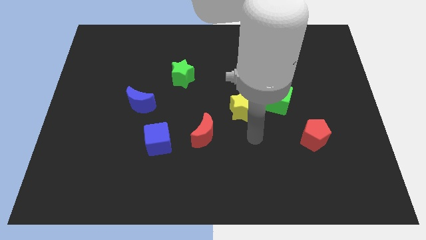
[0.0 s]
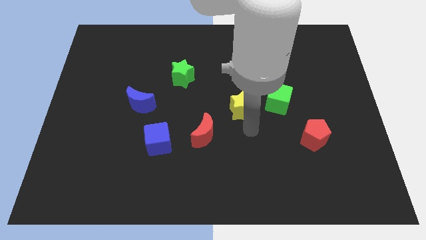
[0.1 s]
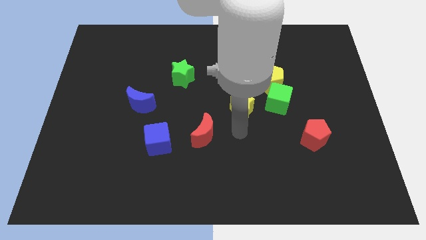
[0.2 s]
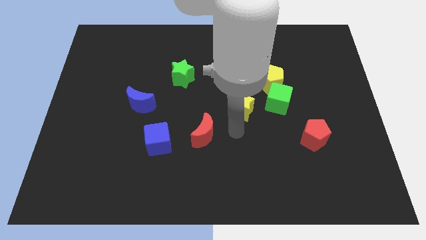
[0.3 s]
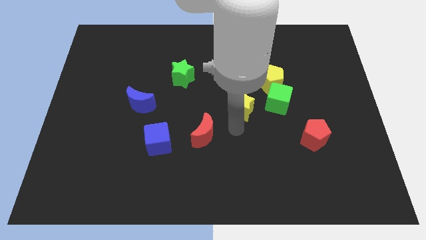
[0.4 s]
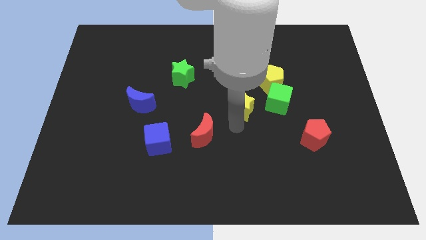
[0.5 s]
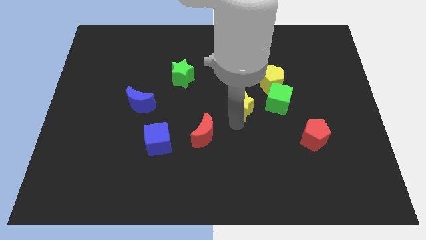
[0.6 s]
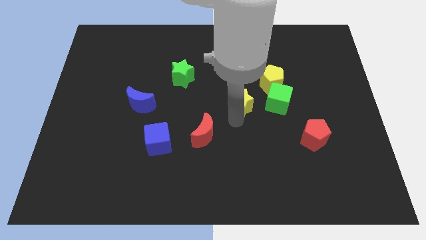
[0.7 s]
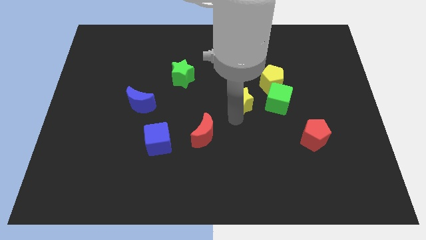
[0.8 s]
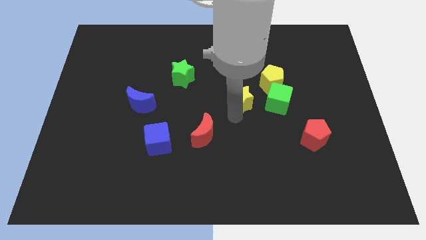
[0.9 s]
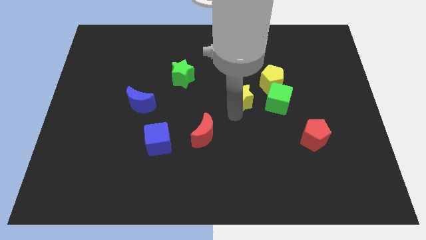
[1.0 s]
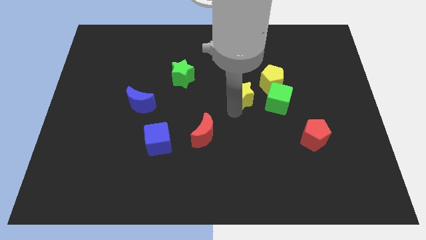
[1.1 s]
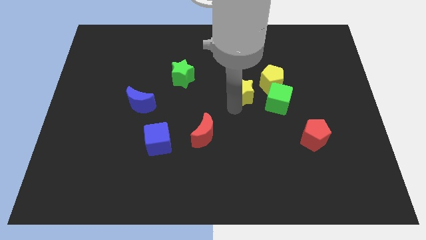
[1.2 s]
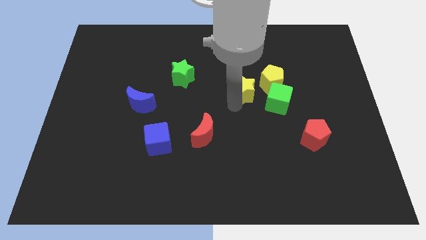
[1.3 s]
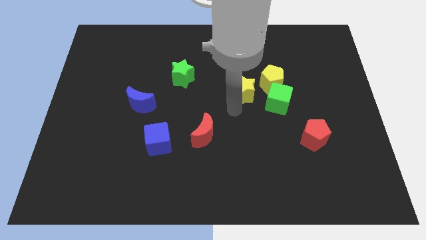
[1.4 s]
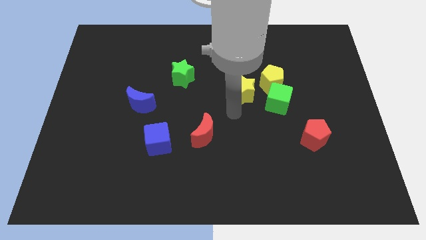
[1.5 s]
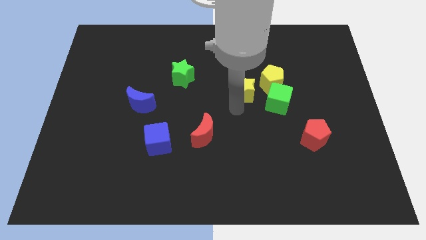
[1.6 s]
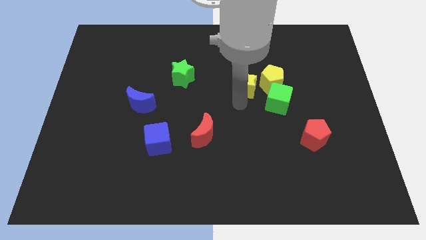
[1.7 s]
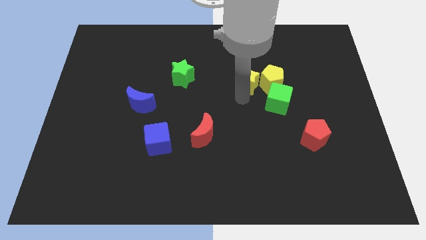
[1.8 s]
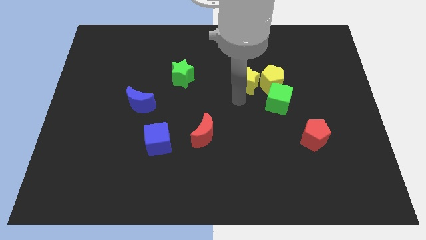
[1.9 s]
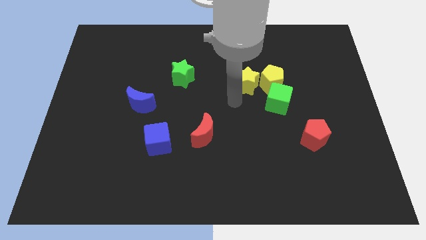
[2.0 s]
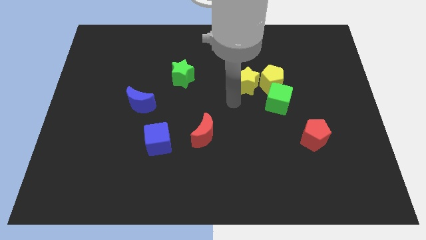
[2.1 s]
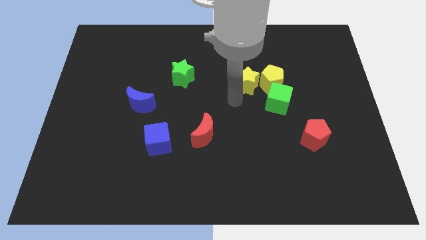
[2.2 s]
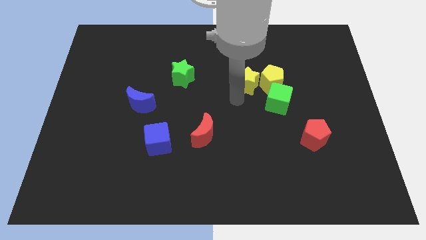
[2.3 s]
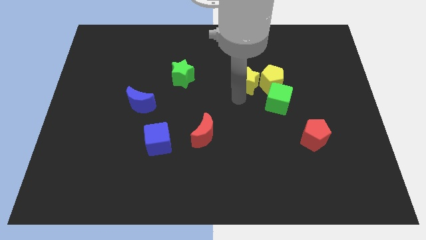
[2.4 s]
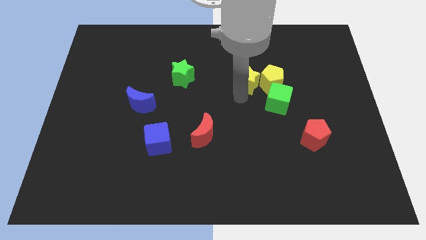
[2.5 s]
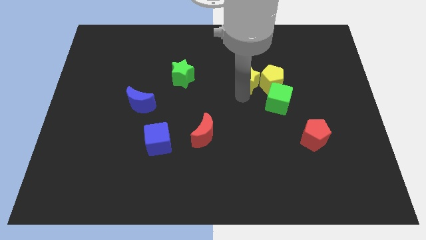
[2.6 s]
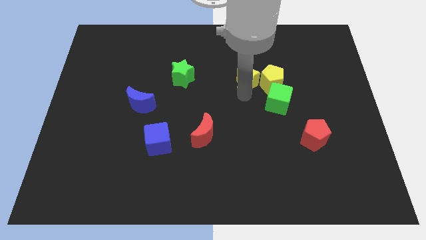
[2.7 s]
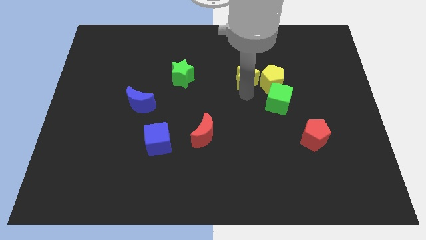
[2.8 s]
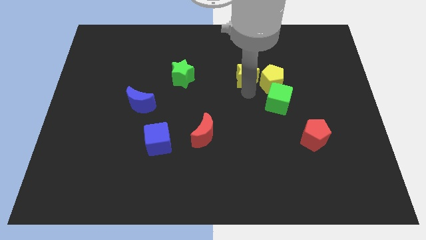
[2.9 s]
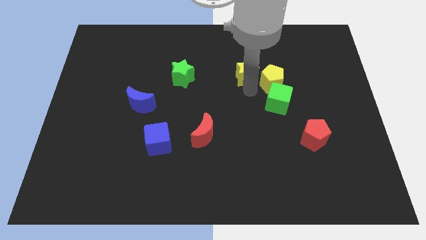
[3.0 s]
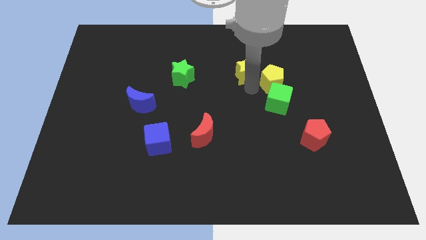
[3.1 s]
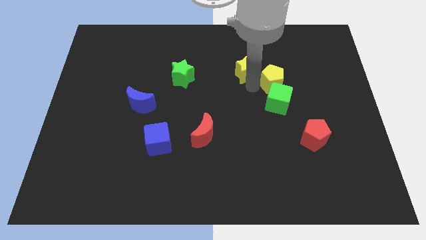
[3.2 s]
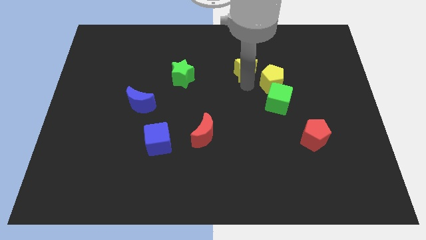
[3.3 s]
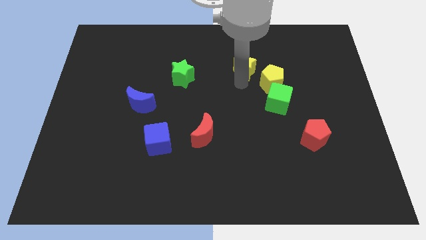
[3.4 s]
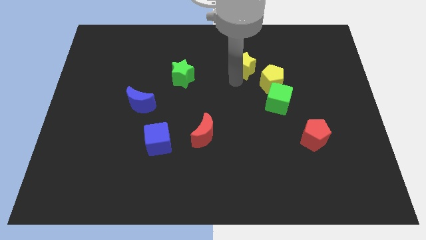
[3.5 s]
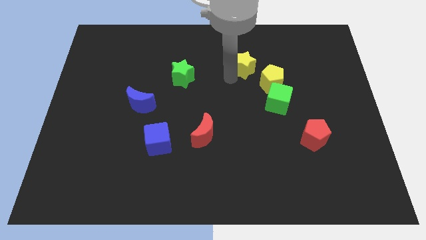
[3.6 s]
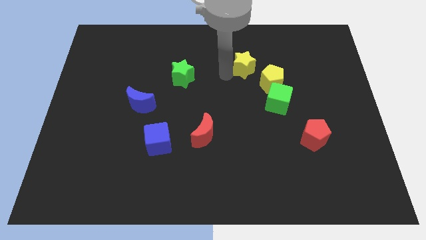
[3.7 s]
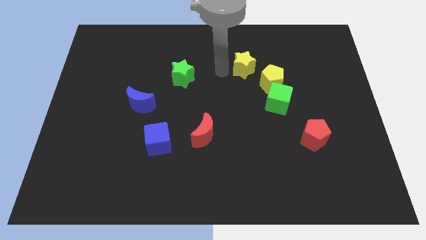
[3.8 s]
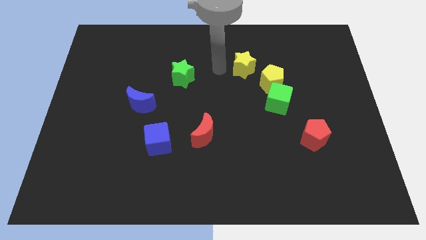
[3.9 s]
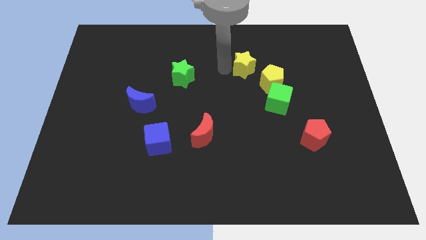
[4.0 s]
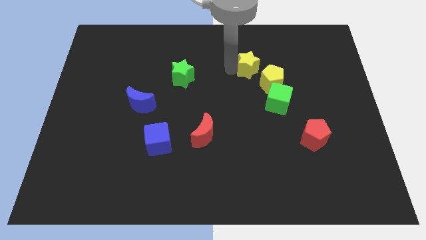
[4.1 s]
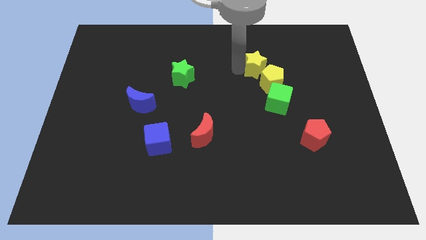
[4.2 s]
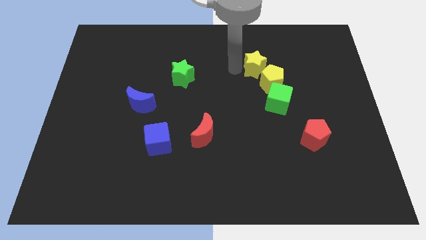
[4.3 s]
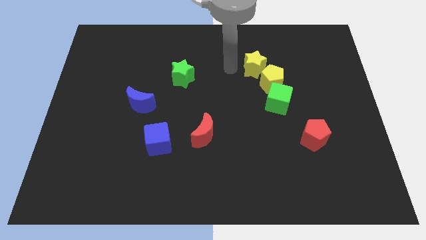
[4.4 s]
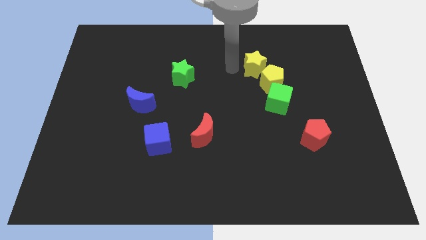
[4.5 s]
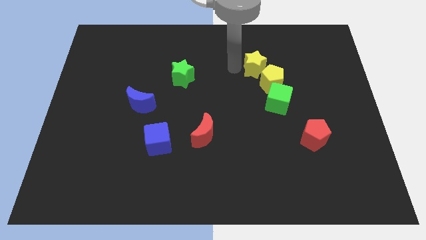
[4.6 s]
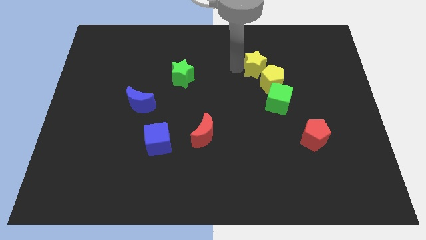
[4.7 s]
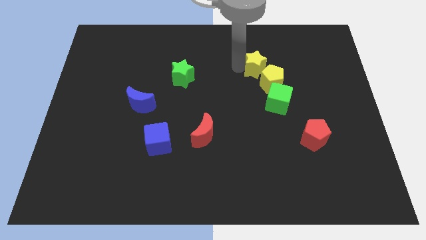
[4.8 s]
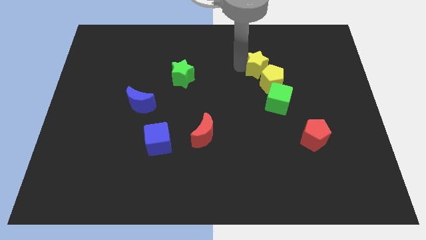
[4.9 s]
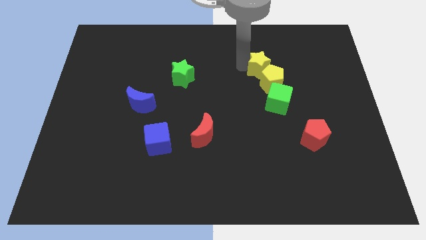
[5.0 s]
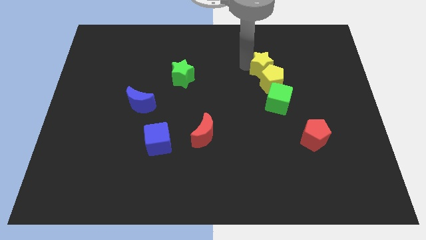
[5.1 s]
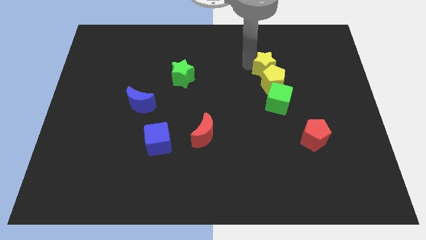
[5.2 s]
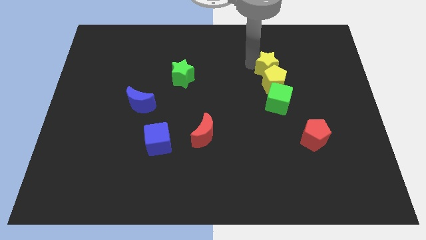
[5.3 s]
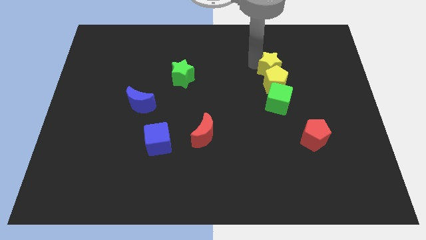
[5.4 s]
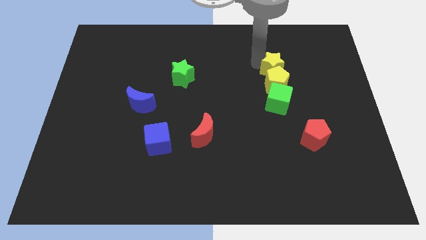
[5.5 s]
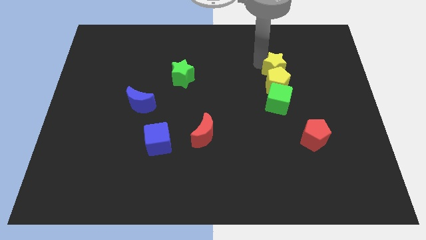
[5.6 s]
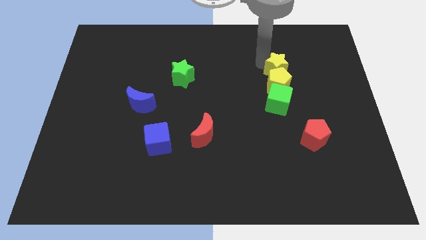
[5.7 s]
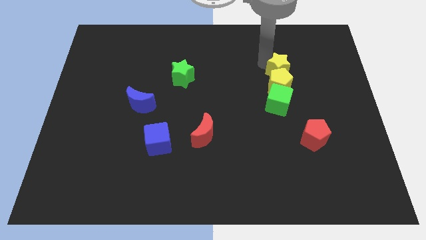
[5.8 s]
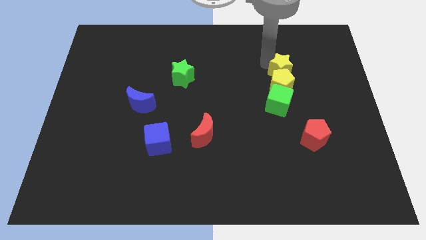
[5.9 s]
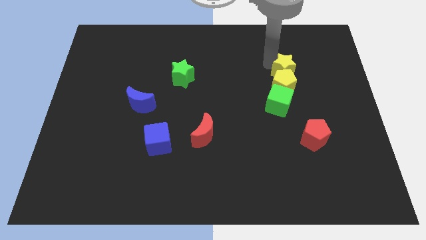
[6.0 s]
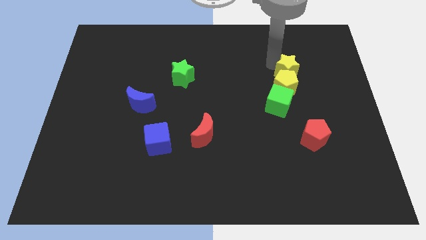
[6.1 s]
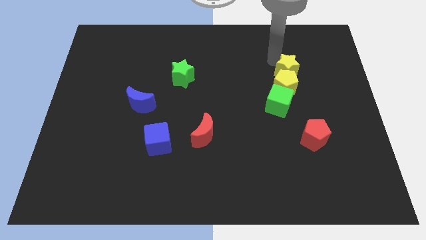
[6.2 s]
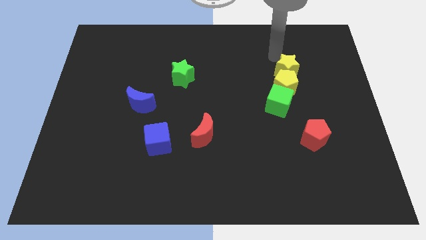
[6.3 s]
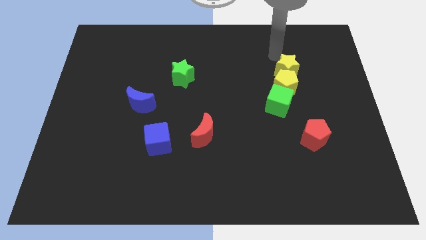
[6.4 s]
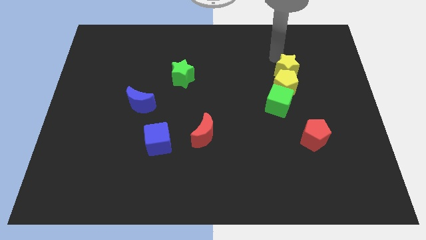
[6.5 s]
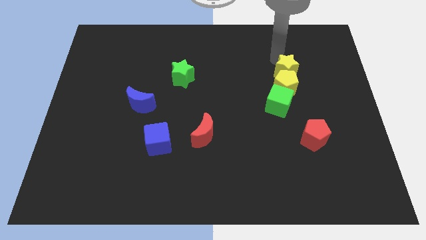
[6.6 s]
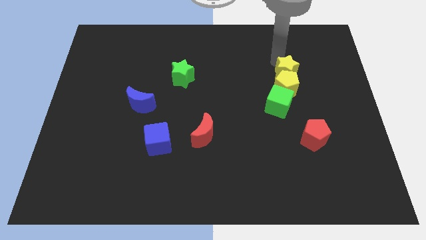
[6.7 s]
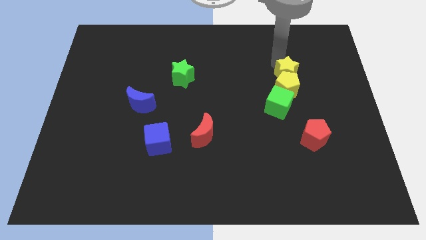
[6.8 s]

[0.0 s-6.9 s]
slide the yellow star diagonally up and to the right of the green cube
